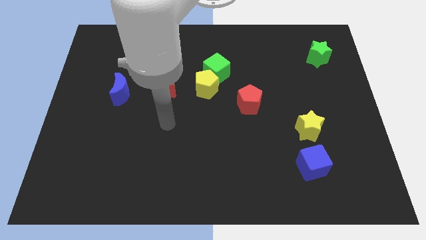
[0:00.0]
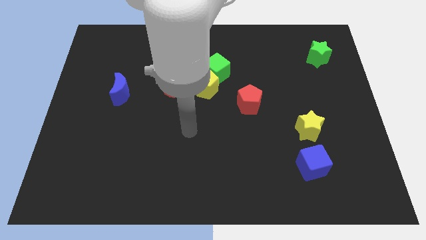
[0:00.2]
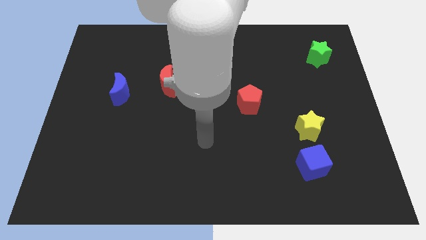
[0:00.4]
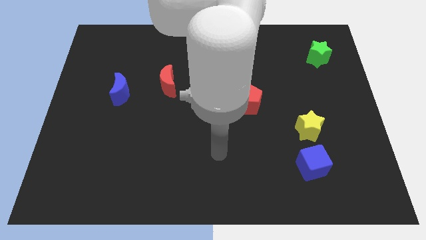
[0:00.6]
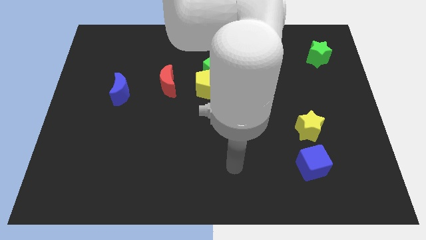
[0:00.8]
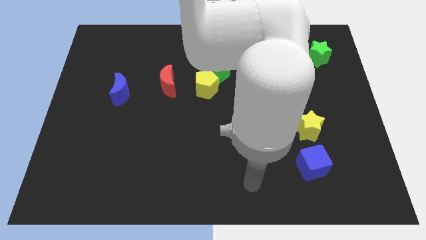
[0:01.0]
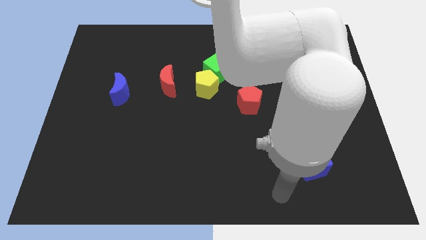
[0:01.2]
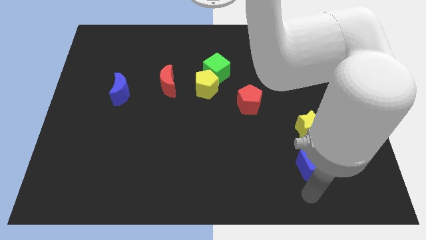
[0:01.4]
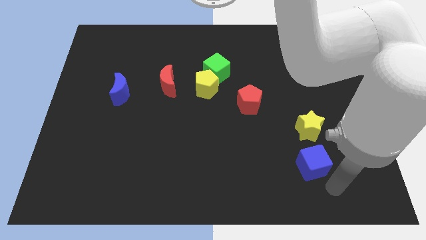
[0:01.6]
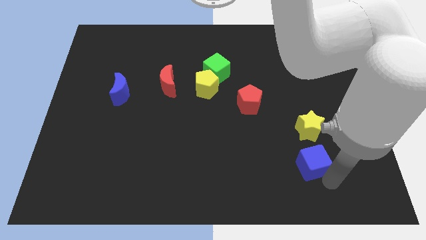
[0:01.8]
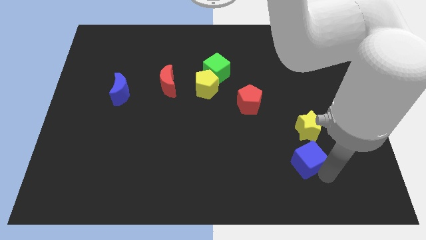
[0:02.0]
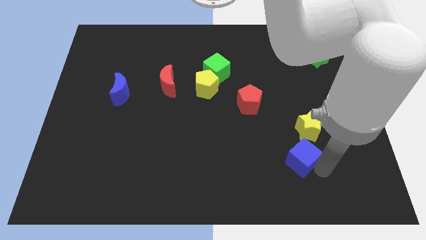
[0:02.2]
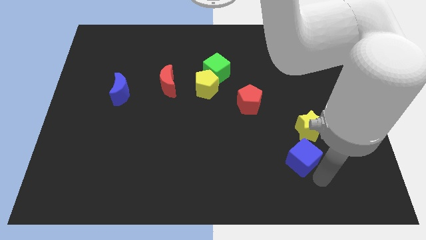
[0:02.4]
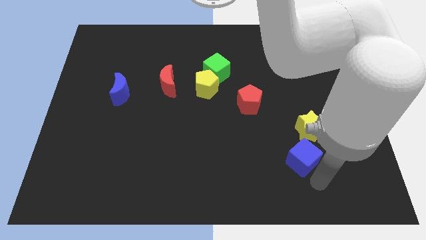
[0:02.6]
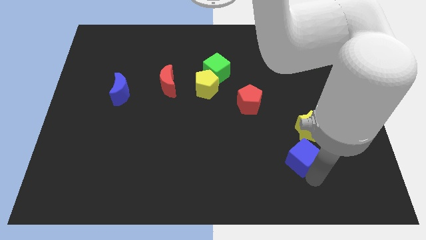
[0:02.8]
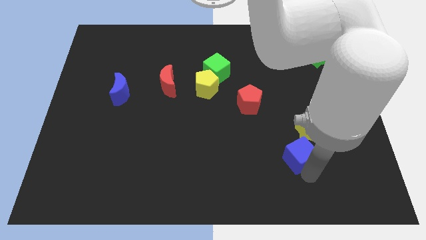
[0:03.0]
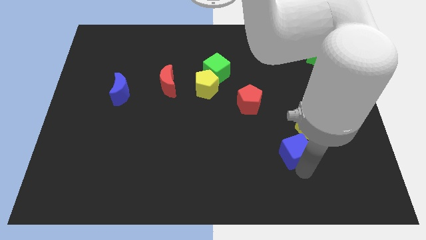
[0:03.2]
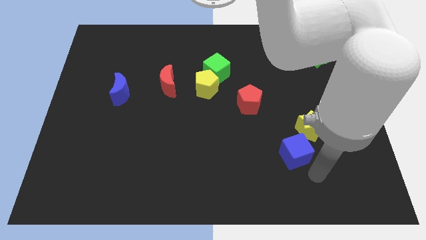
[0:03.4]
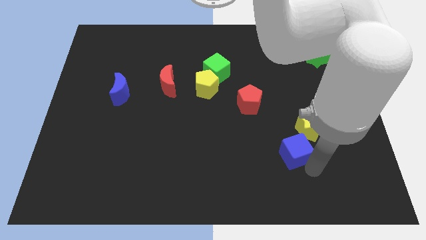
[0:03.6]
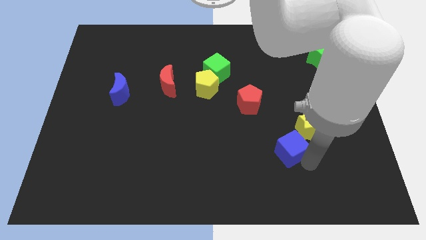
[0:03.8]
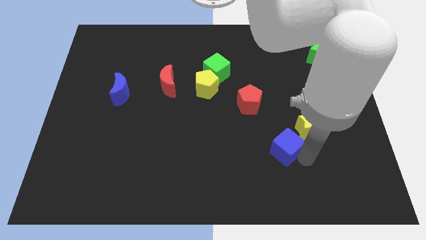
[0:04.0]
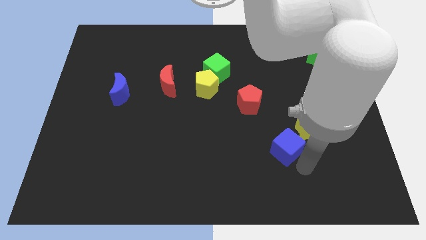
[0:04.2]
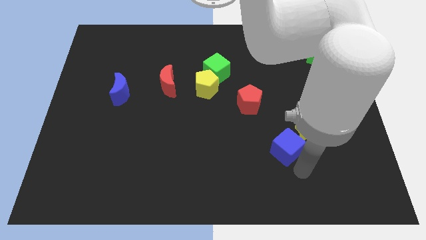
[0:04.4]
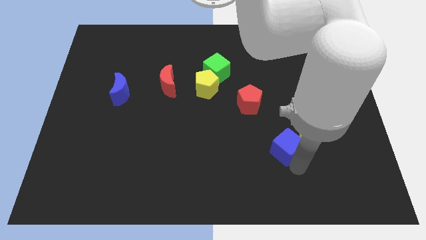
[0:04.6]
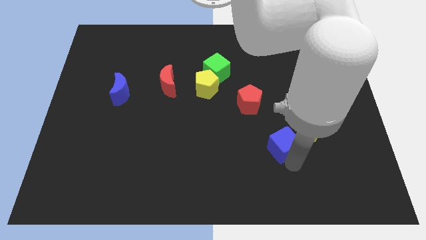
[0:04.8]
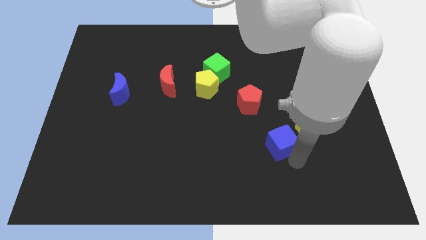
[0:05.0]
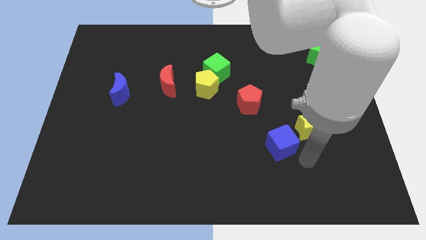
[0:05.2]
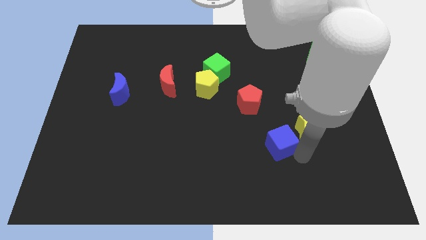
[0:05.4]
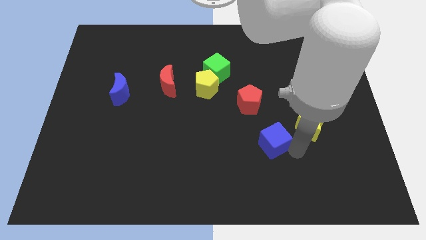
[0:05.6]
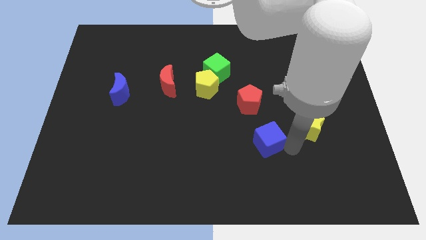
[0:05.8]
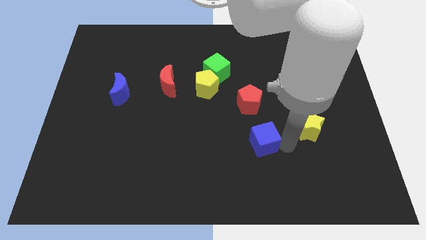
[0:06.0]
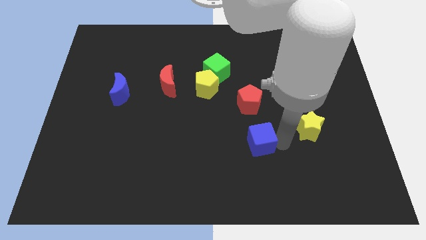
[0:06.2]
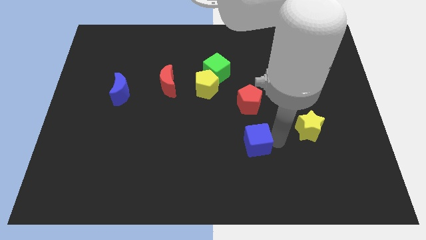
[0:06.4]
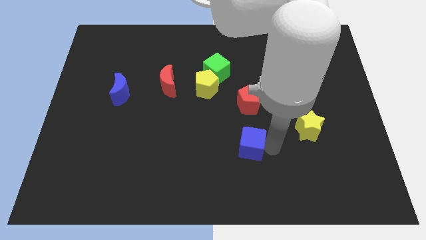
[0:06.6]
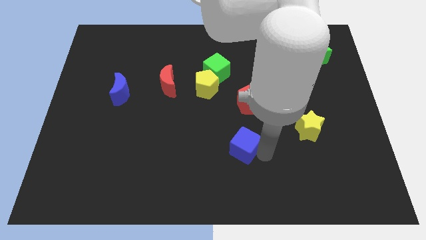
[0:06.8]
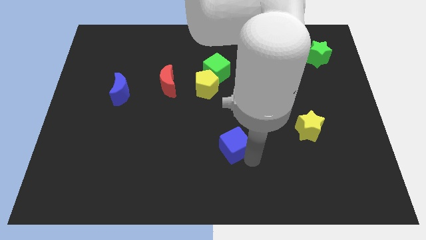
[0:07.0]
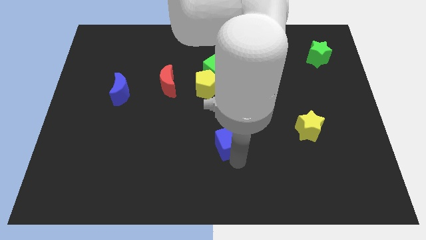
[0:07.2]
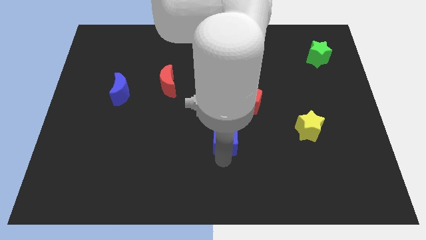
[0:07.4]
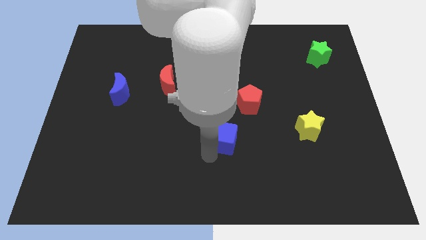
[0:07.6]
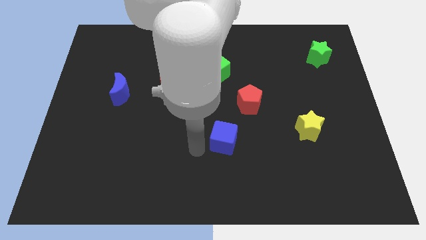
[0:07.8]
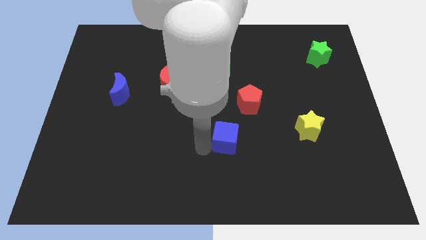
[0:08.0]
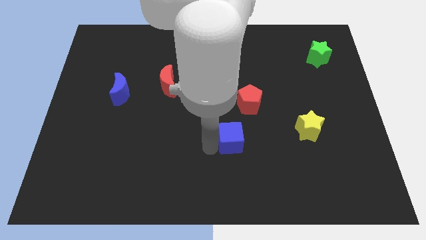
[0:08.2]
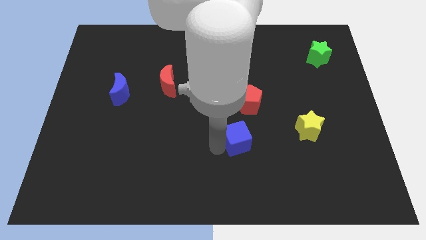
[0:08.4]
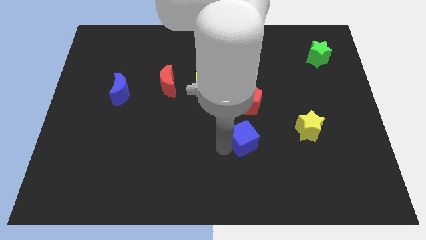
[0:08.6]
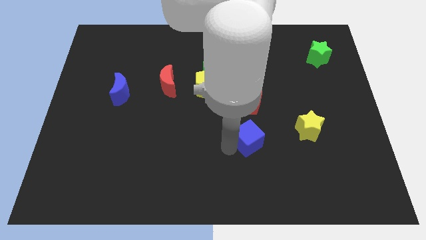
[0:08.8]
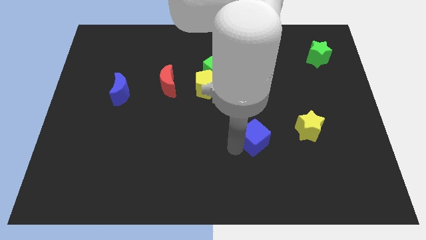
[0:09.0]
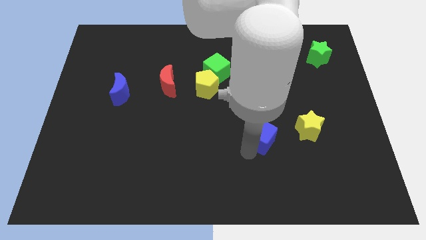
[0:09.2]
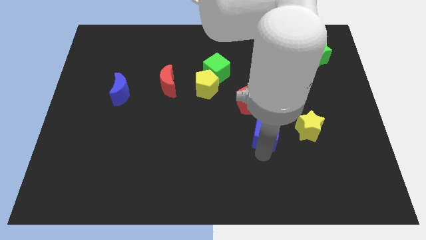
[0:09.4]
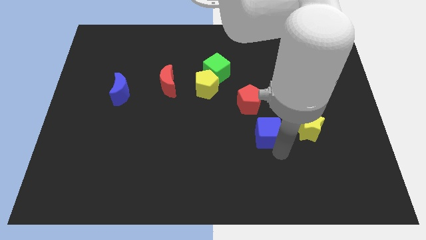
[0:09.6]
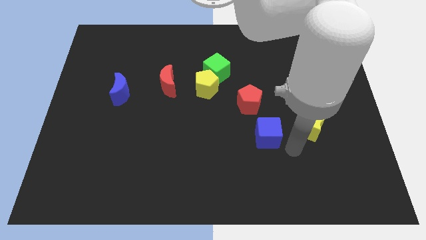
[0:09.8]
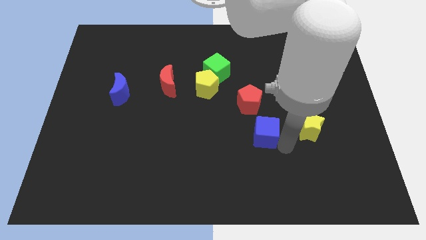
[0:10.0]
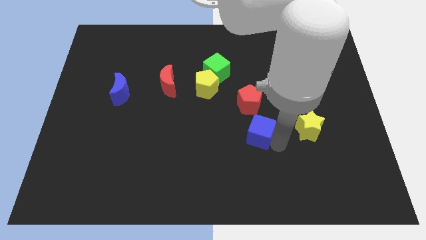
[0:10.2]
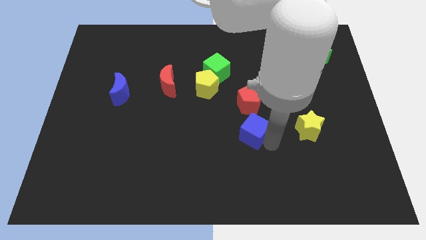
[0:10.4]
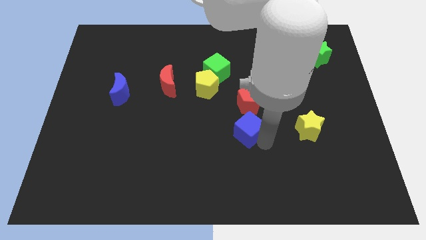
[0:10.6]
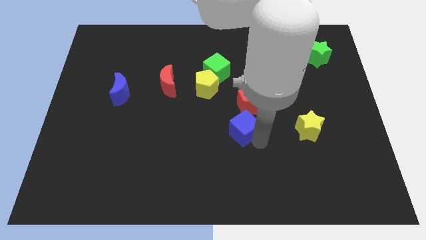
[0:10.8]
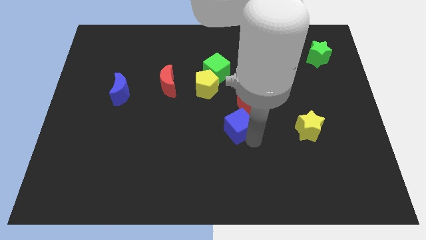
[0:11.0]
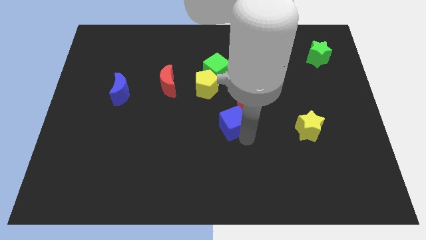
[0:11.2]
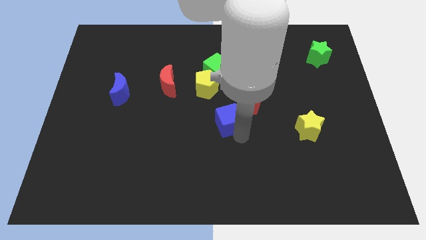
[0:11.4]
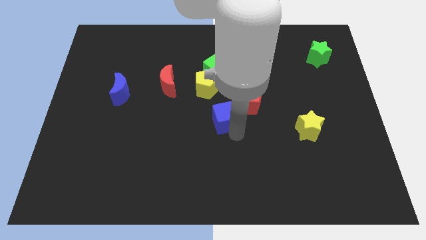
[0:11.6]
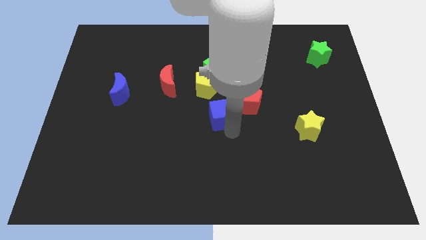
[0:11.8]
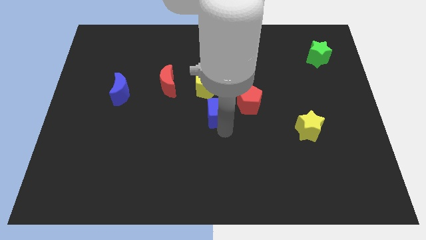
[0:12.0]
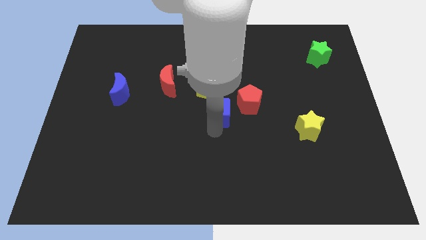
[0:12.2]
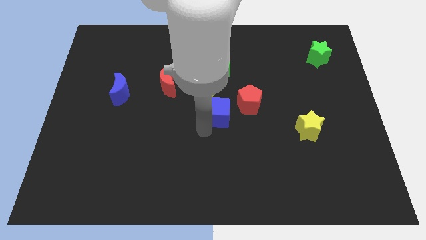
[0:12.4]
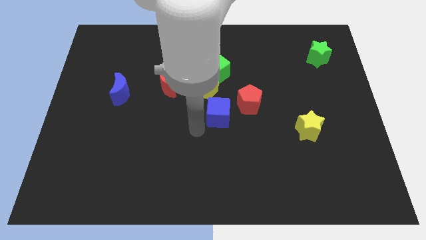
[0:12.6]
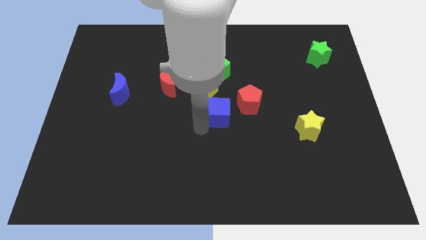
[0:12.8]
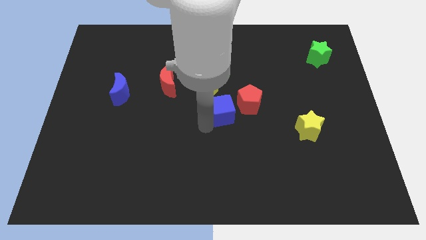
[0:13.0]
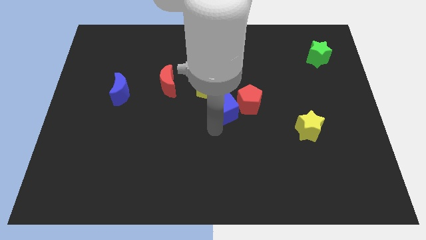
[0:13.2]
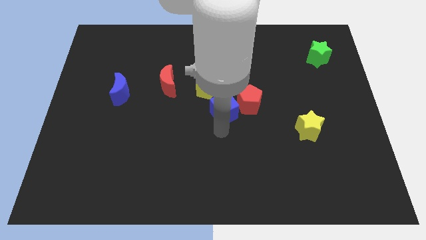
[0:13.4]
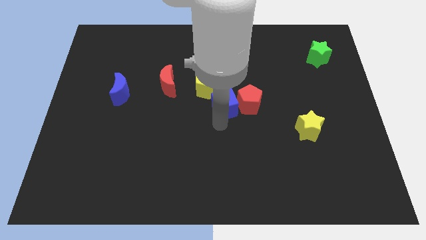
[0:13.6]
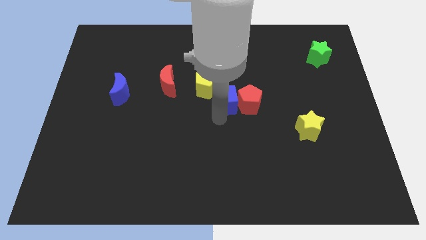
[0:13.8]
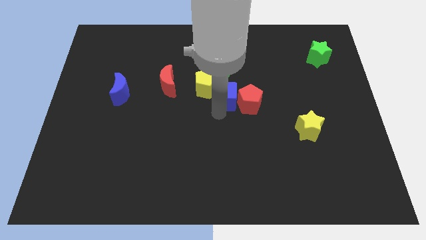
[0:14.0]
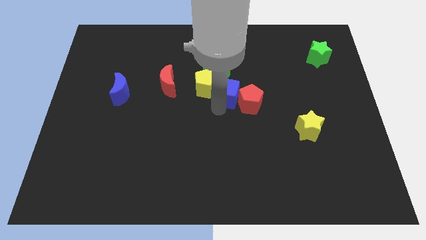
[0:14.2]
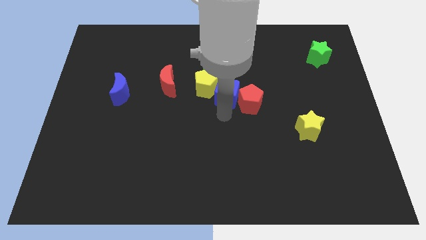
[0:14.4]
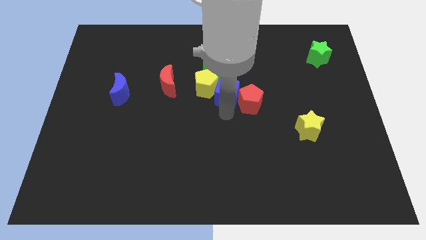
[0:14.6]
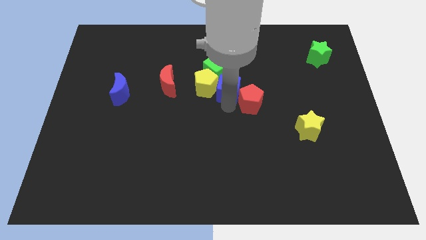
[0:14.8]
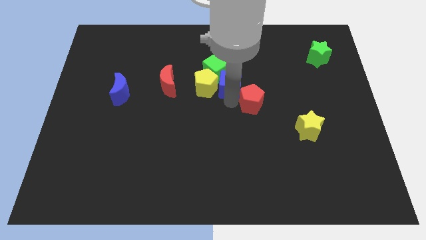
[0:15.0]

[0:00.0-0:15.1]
put the blue cube towards the green cube

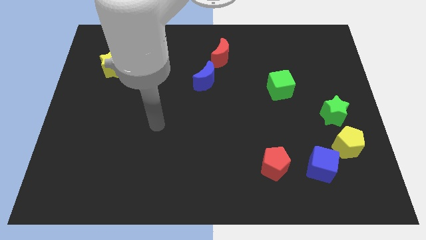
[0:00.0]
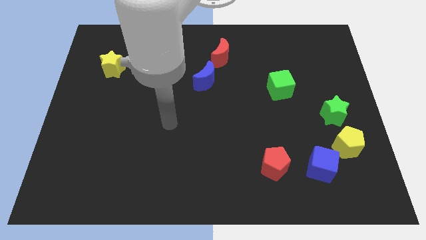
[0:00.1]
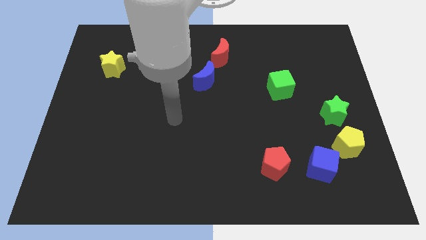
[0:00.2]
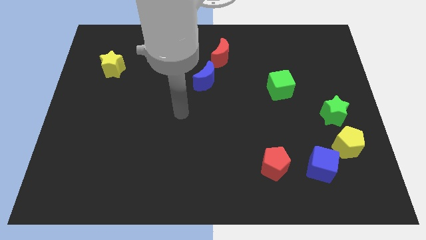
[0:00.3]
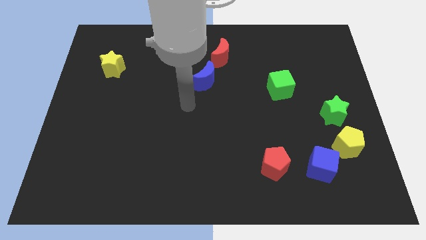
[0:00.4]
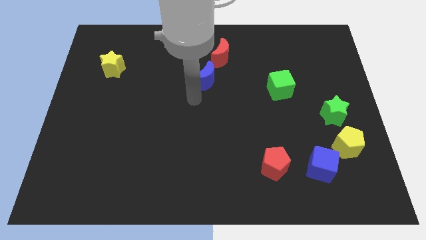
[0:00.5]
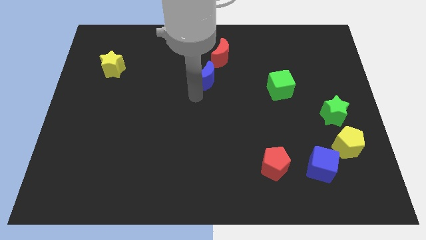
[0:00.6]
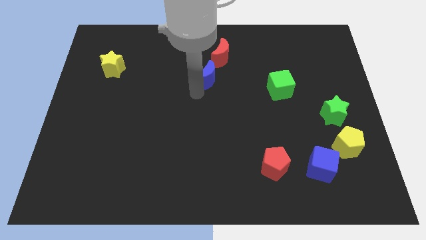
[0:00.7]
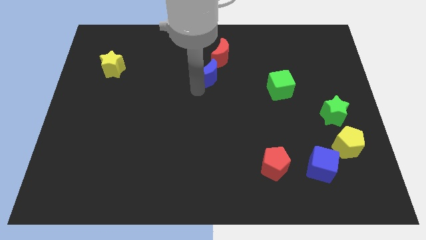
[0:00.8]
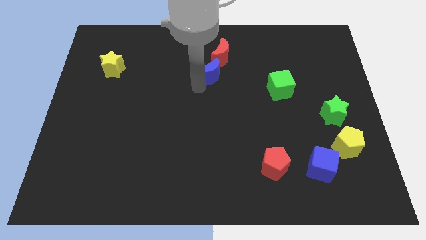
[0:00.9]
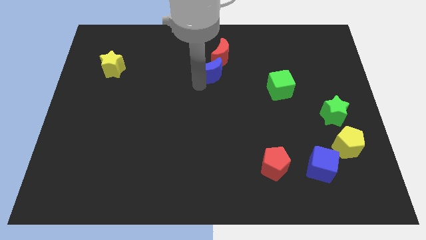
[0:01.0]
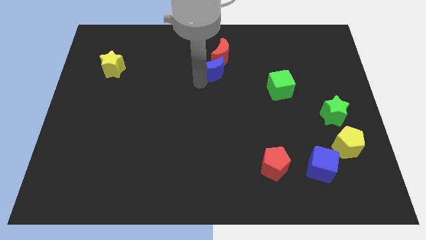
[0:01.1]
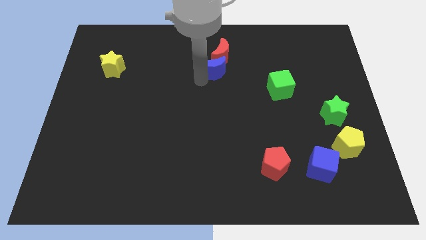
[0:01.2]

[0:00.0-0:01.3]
push the blue moon close to the red moon
